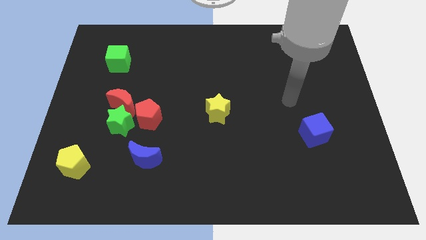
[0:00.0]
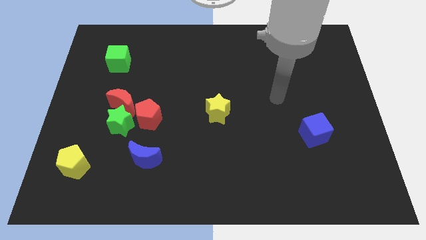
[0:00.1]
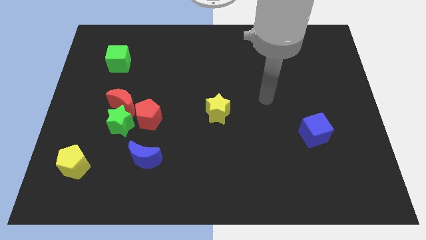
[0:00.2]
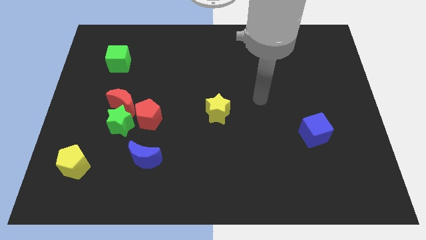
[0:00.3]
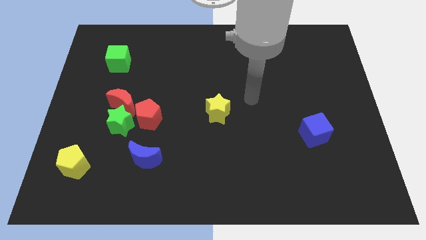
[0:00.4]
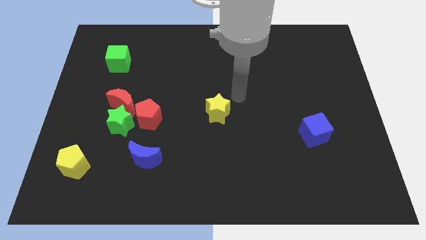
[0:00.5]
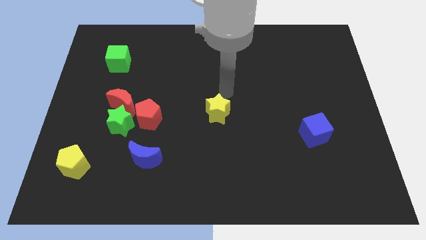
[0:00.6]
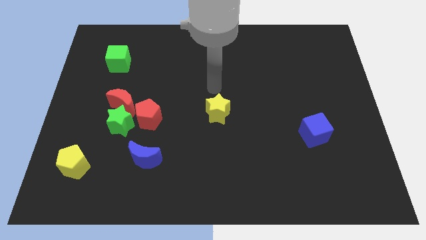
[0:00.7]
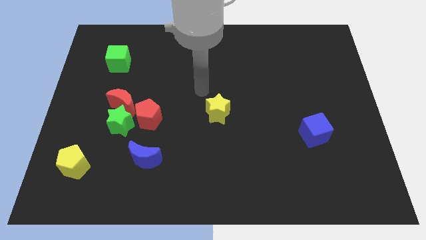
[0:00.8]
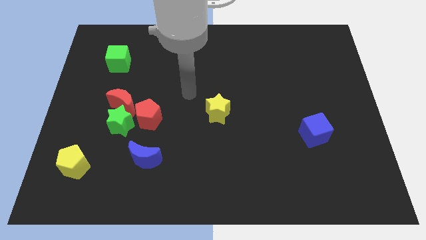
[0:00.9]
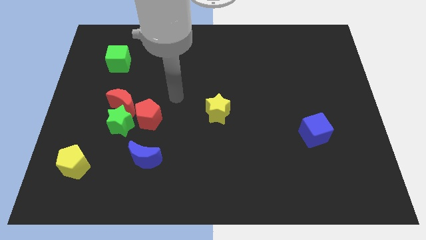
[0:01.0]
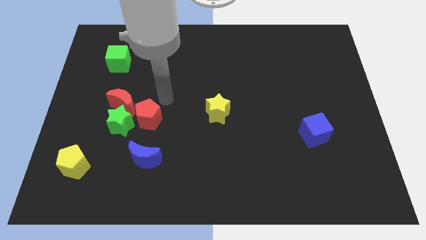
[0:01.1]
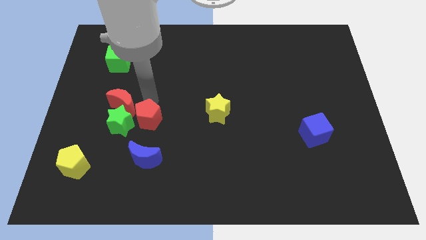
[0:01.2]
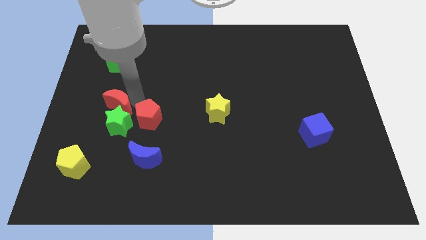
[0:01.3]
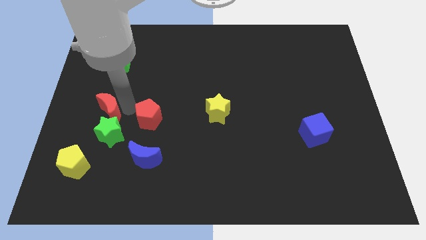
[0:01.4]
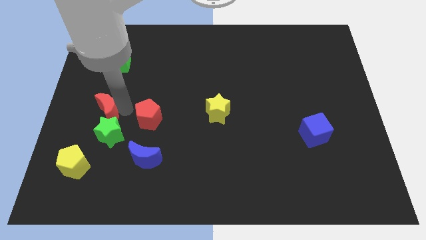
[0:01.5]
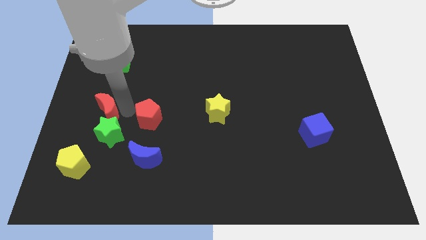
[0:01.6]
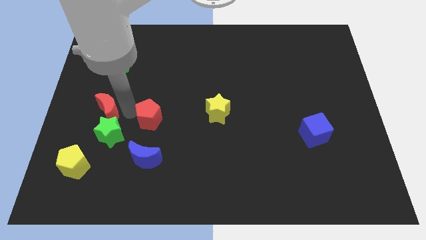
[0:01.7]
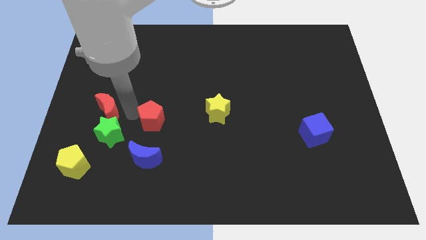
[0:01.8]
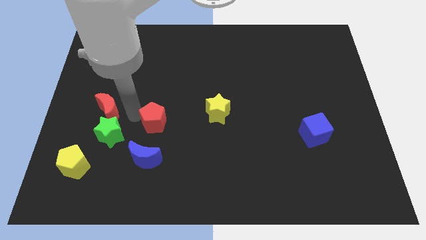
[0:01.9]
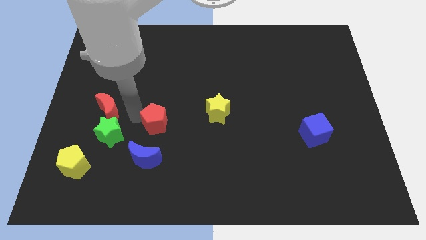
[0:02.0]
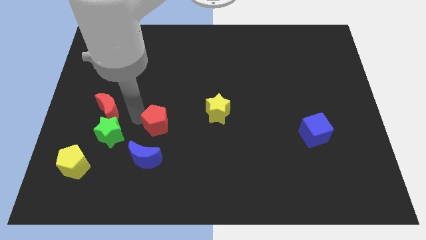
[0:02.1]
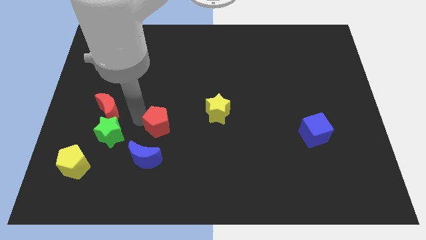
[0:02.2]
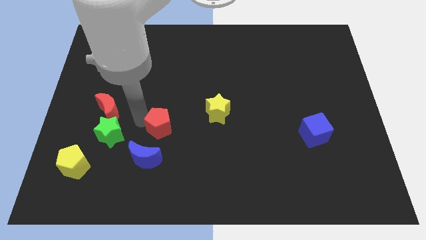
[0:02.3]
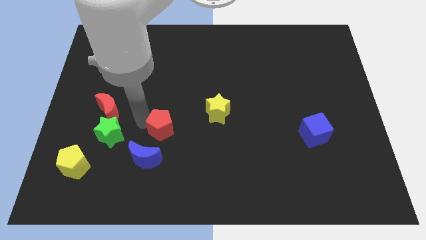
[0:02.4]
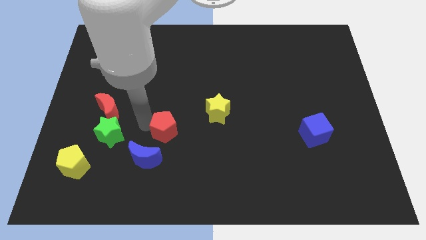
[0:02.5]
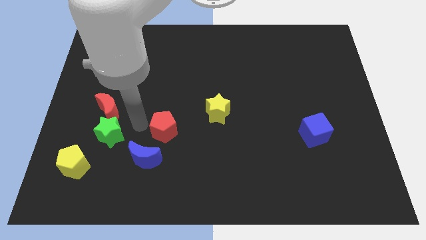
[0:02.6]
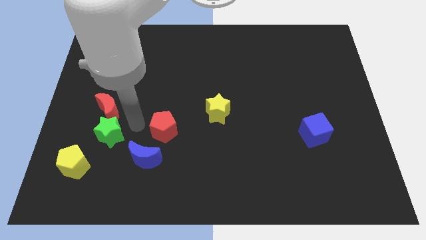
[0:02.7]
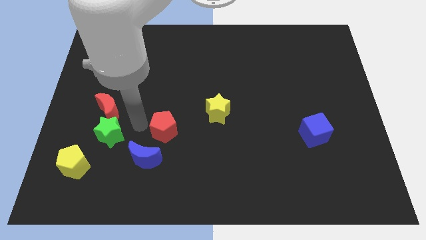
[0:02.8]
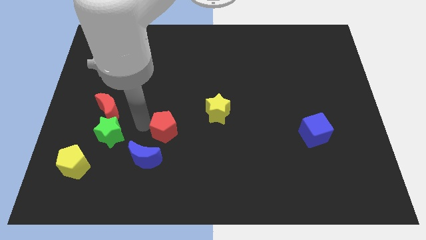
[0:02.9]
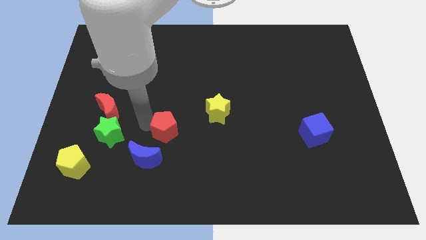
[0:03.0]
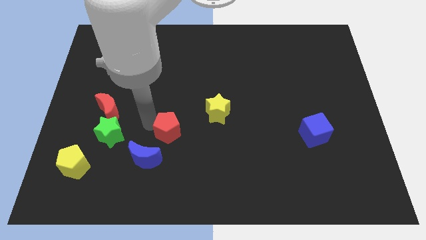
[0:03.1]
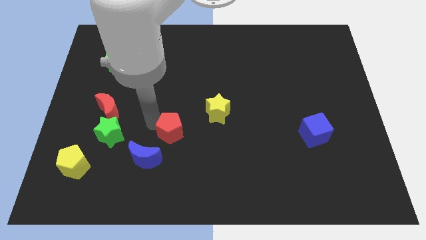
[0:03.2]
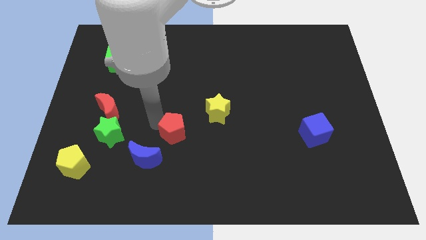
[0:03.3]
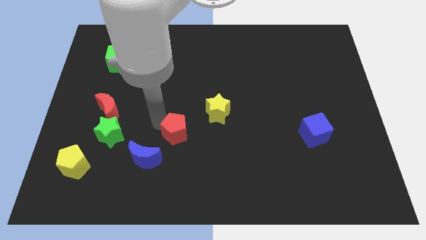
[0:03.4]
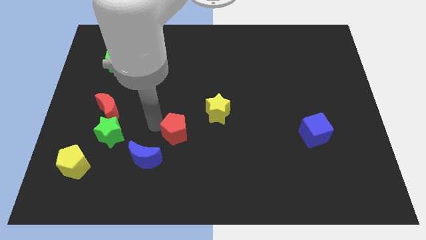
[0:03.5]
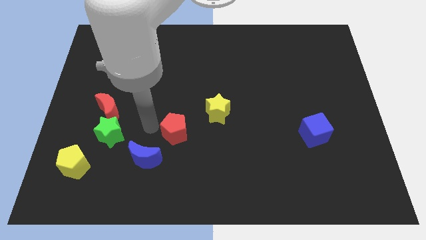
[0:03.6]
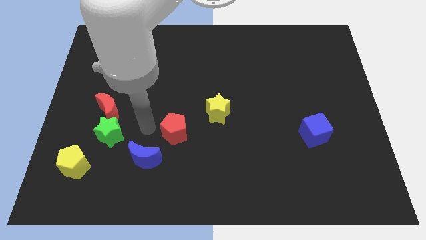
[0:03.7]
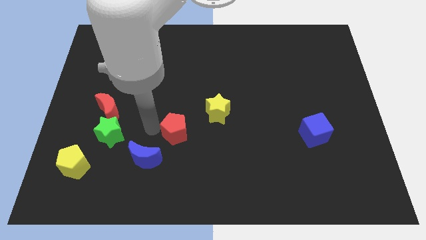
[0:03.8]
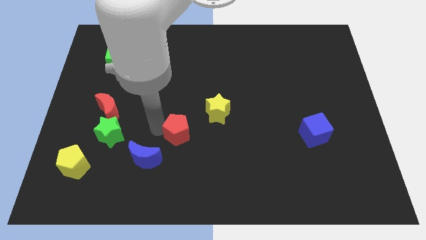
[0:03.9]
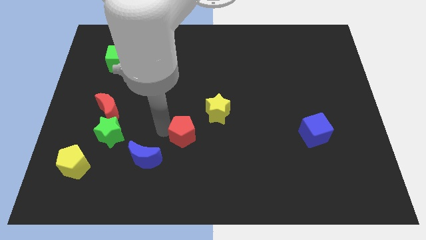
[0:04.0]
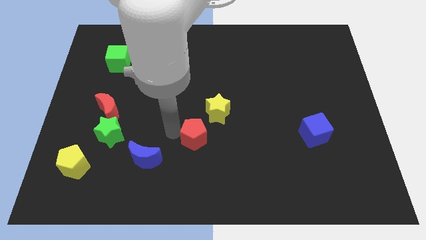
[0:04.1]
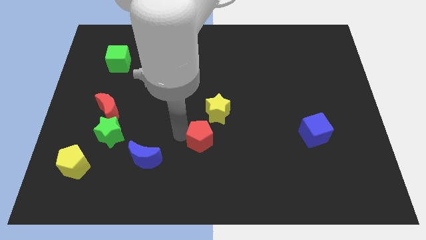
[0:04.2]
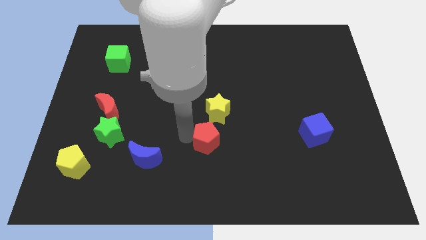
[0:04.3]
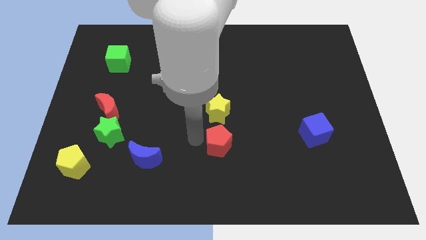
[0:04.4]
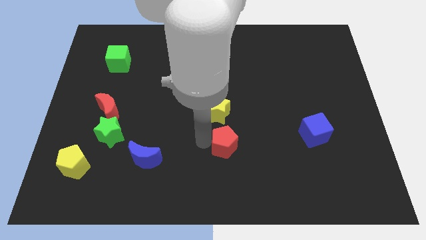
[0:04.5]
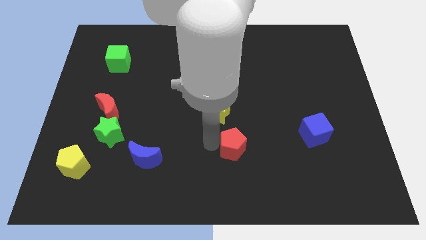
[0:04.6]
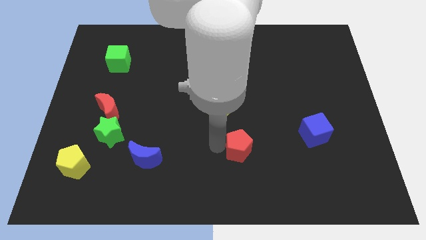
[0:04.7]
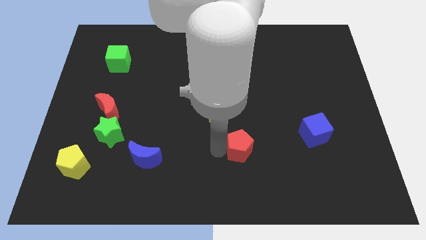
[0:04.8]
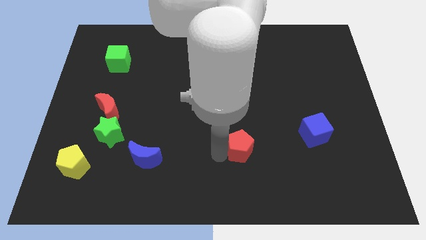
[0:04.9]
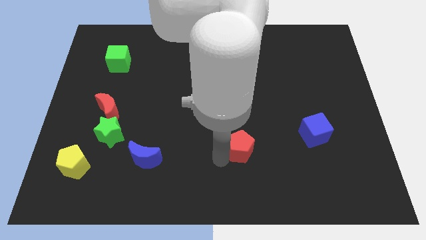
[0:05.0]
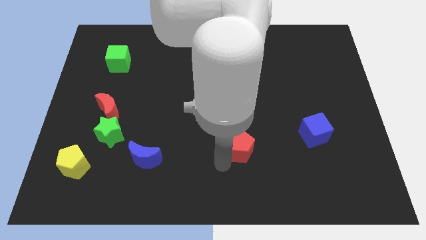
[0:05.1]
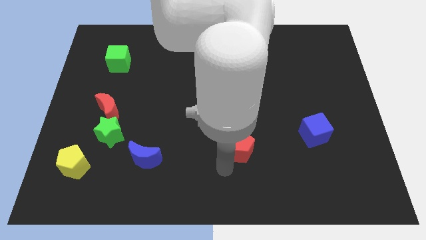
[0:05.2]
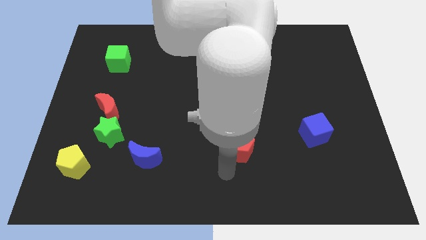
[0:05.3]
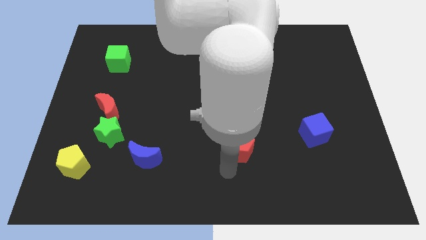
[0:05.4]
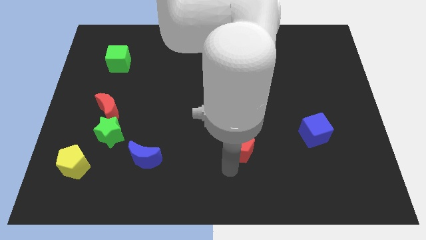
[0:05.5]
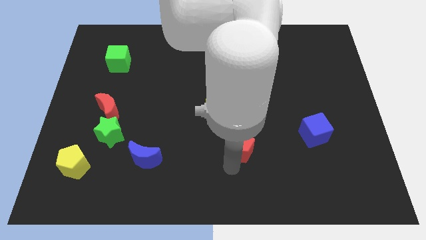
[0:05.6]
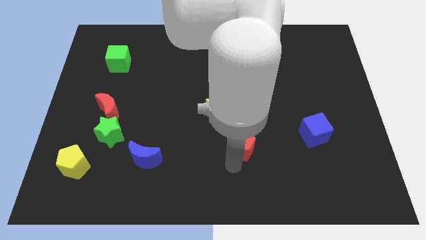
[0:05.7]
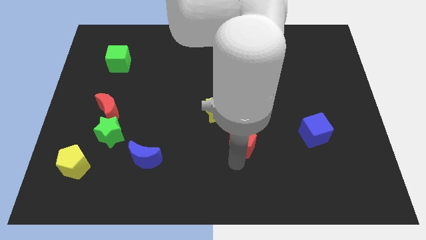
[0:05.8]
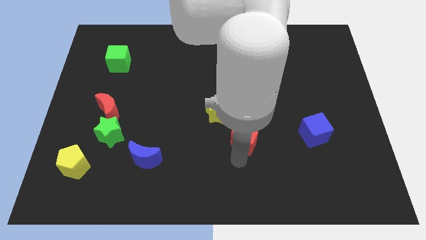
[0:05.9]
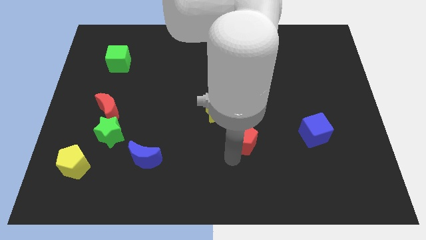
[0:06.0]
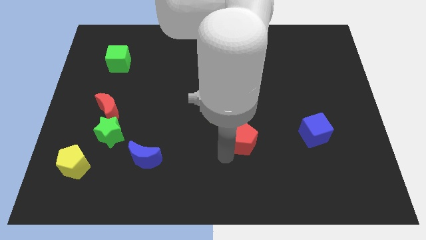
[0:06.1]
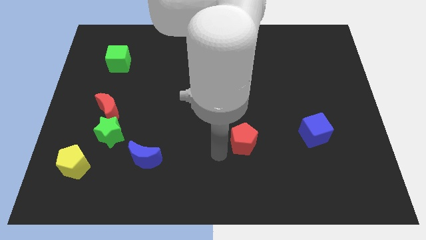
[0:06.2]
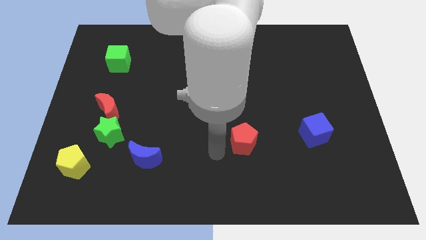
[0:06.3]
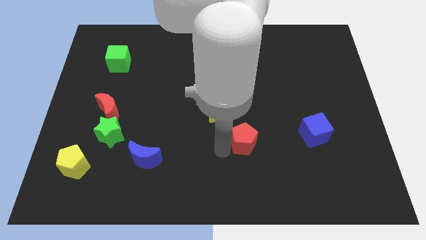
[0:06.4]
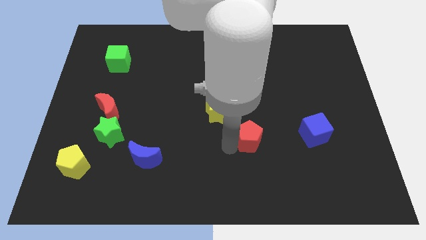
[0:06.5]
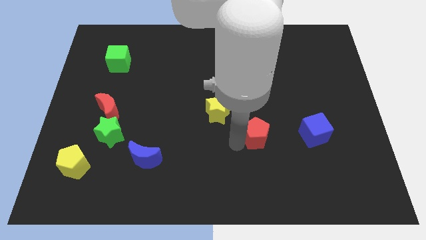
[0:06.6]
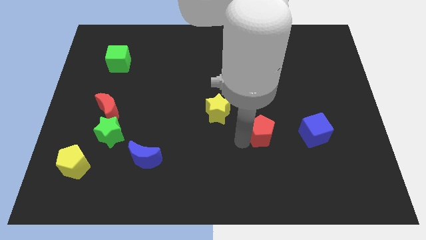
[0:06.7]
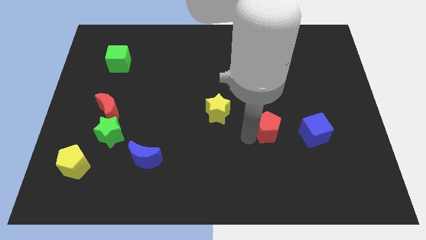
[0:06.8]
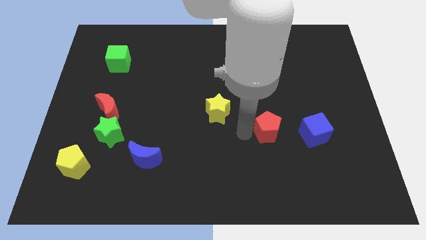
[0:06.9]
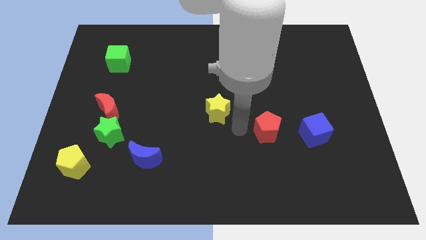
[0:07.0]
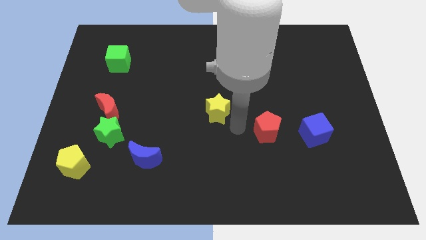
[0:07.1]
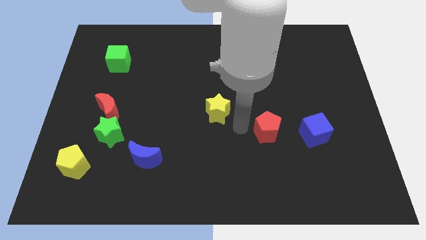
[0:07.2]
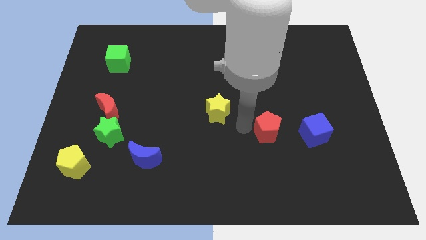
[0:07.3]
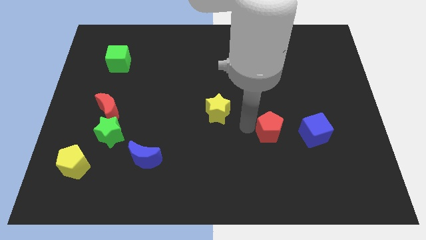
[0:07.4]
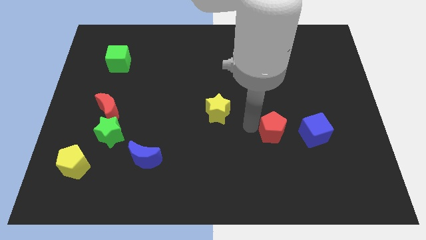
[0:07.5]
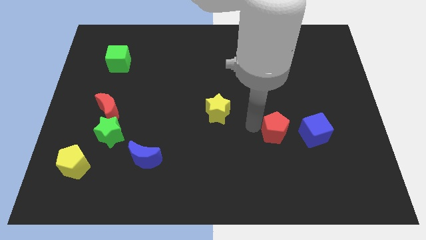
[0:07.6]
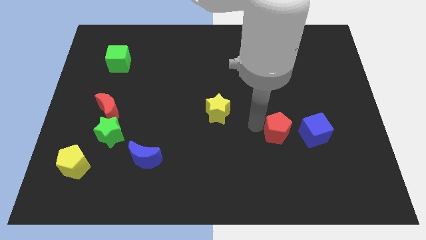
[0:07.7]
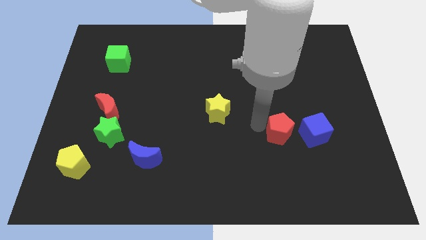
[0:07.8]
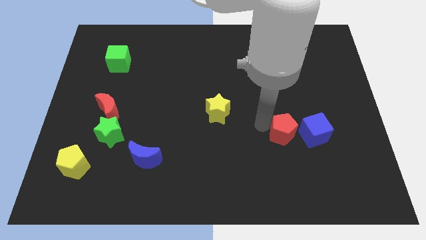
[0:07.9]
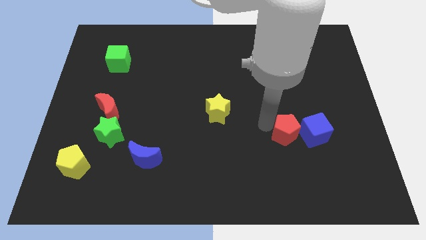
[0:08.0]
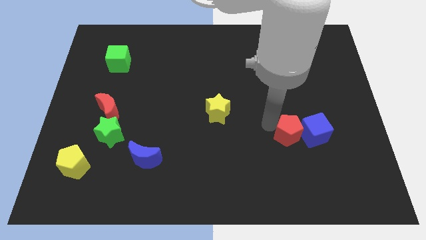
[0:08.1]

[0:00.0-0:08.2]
slide the red pentagon close to the blue cube
